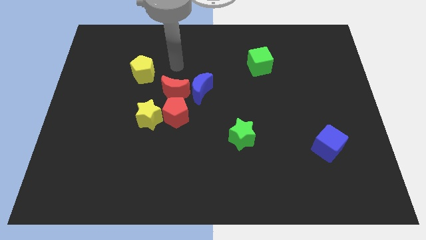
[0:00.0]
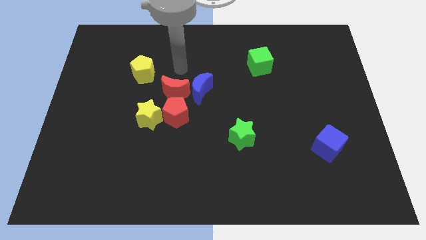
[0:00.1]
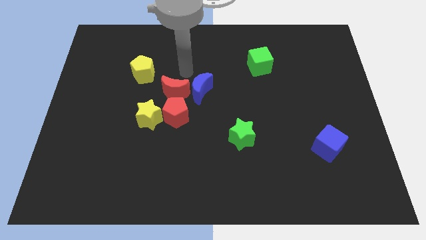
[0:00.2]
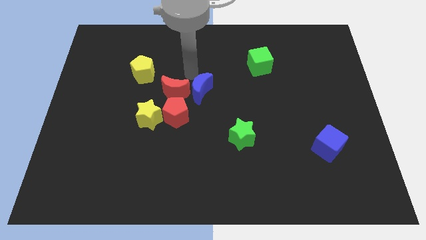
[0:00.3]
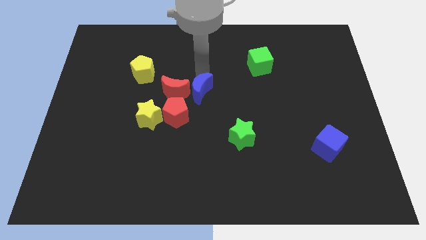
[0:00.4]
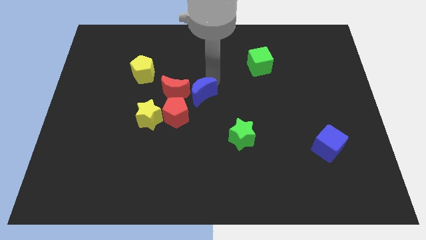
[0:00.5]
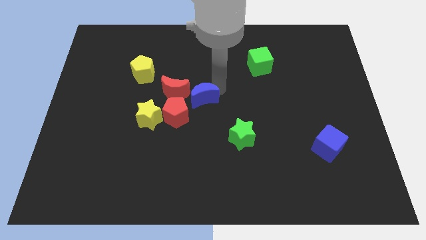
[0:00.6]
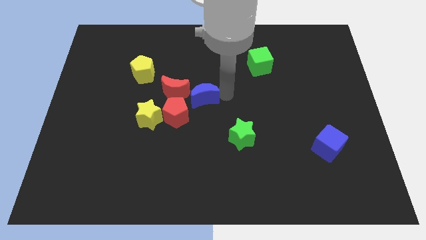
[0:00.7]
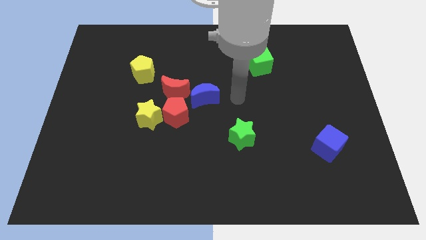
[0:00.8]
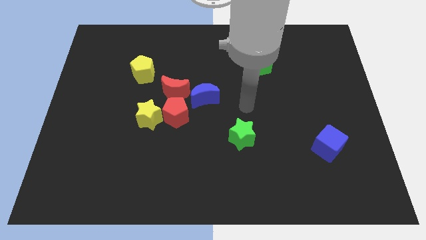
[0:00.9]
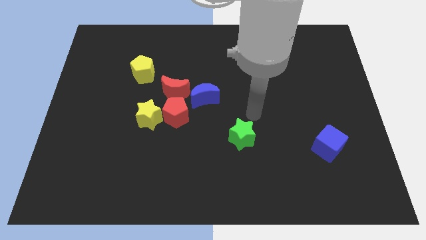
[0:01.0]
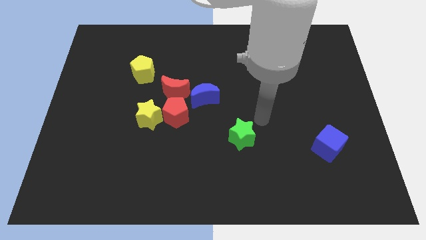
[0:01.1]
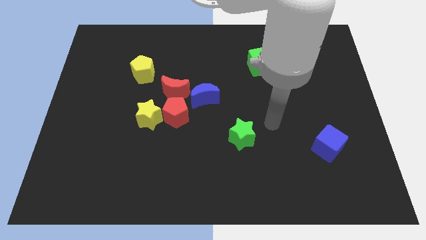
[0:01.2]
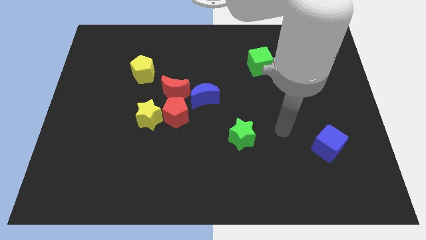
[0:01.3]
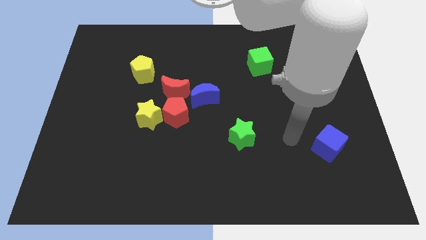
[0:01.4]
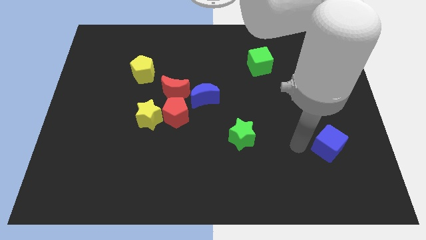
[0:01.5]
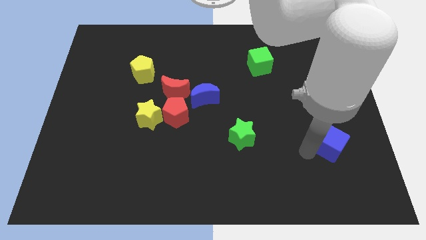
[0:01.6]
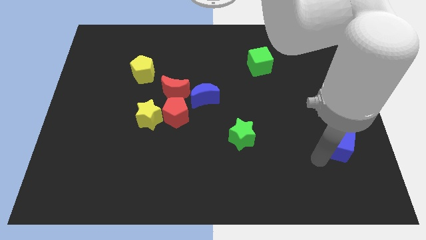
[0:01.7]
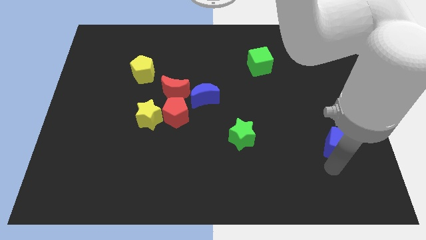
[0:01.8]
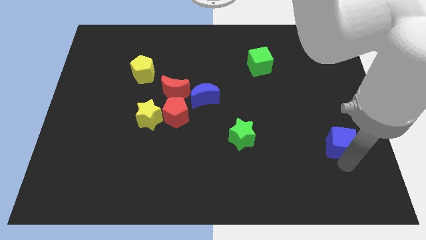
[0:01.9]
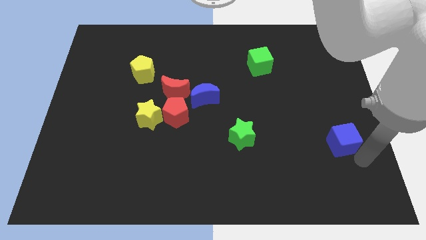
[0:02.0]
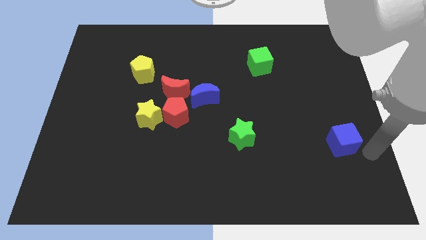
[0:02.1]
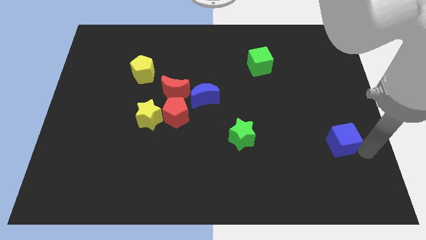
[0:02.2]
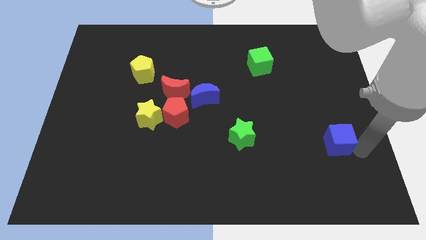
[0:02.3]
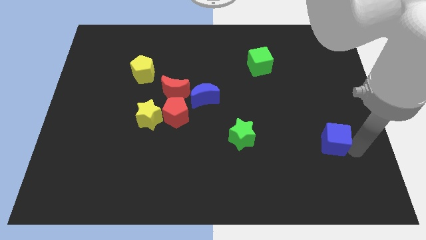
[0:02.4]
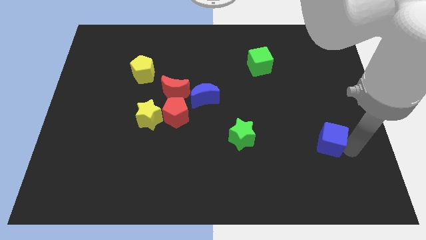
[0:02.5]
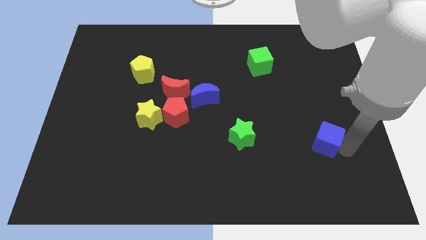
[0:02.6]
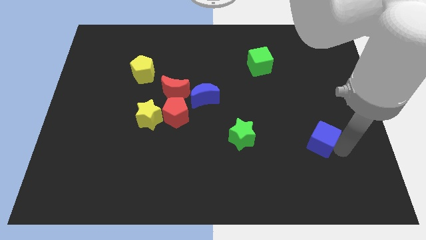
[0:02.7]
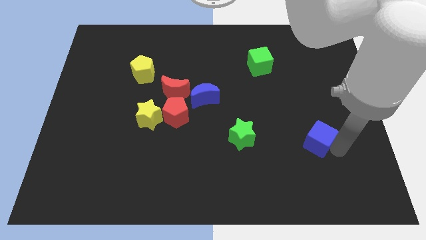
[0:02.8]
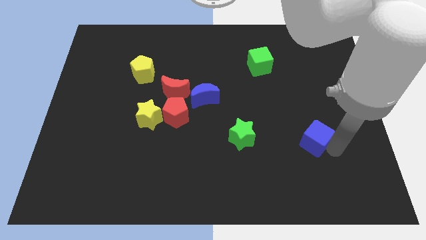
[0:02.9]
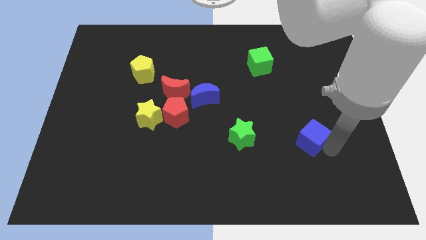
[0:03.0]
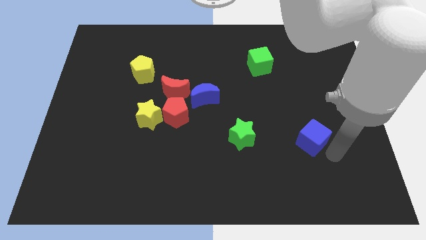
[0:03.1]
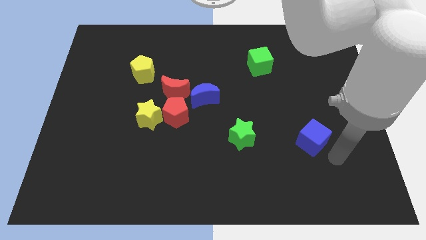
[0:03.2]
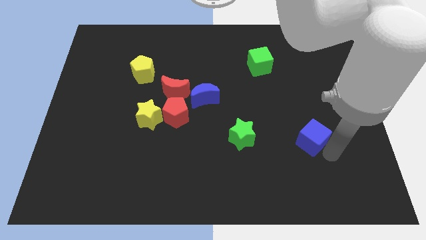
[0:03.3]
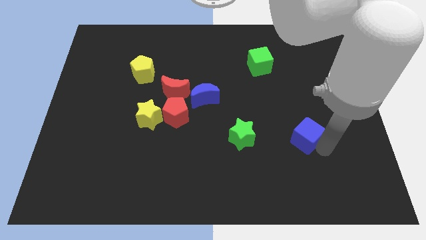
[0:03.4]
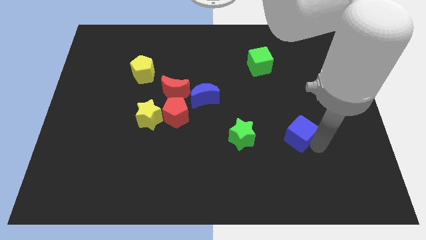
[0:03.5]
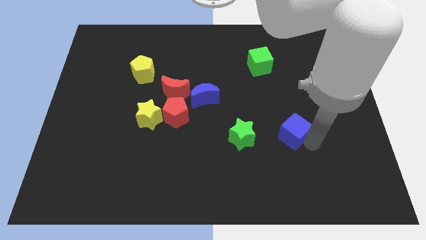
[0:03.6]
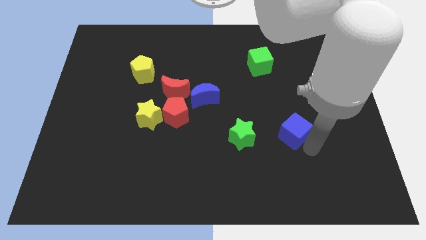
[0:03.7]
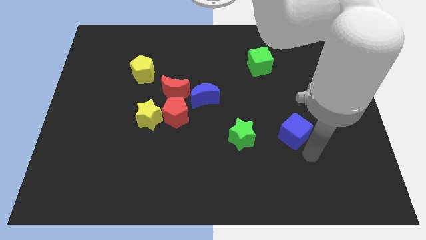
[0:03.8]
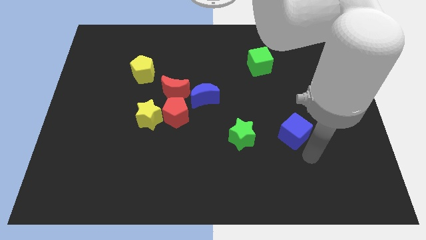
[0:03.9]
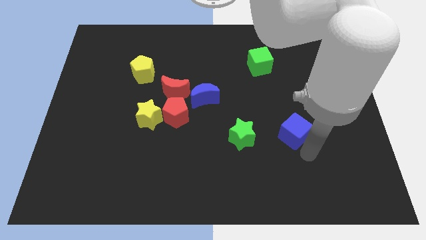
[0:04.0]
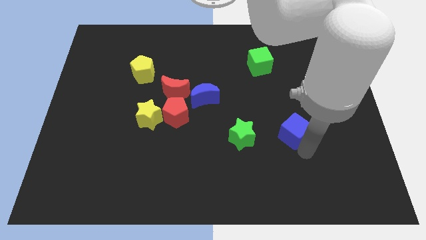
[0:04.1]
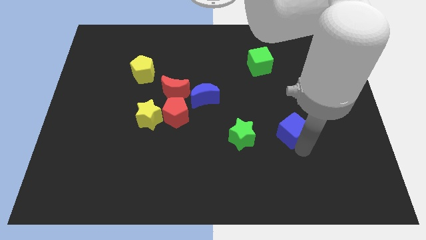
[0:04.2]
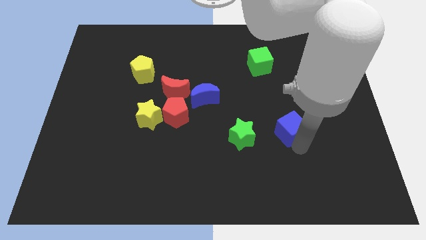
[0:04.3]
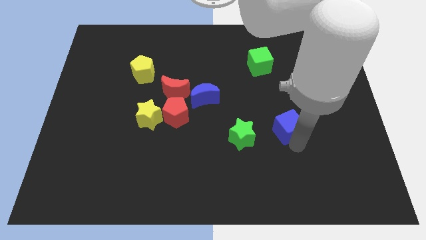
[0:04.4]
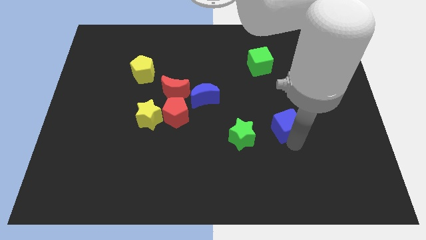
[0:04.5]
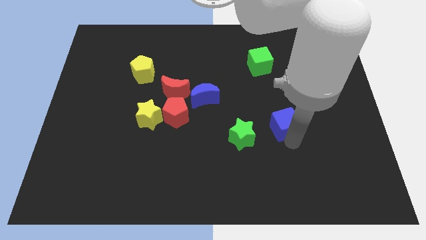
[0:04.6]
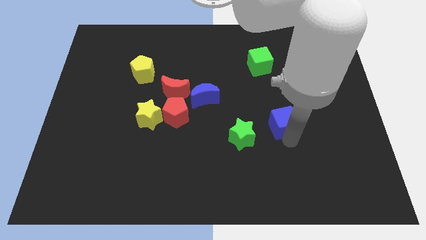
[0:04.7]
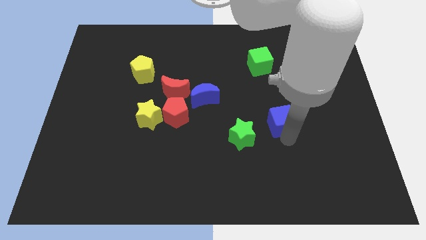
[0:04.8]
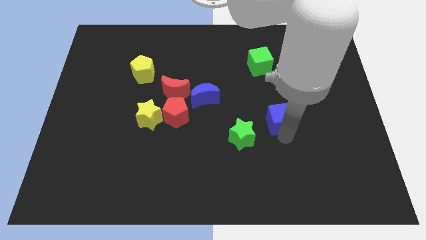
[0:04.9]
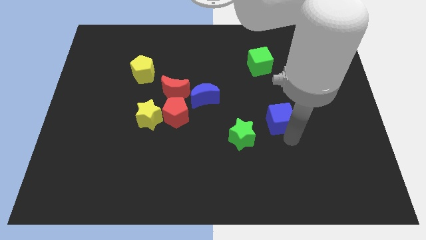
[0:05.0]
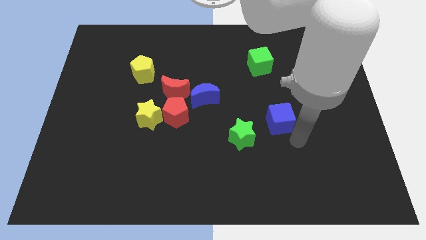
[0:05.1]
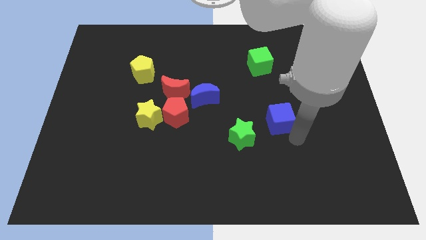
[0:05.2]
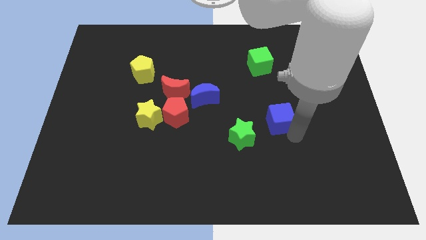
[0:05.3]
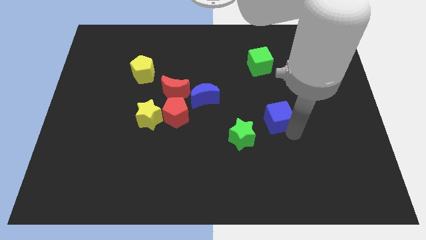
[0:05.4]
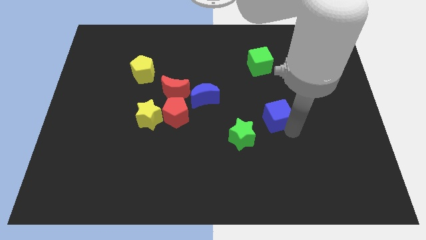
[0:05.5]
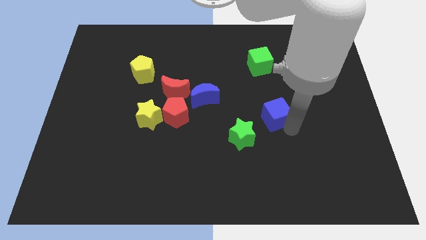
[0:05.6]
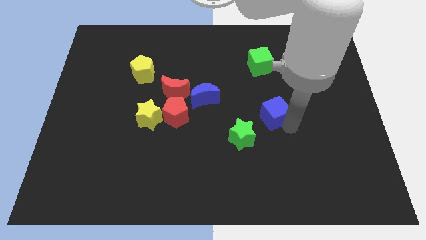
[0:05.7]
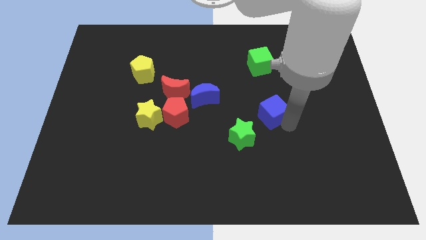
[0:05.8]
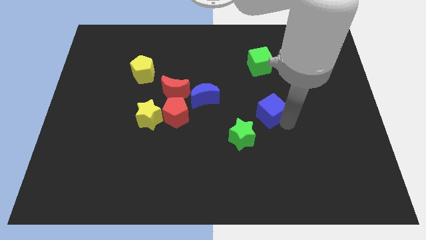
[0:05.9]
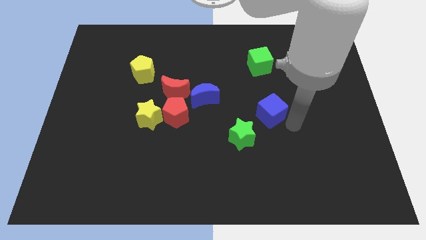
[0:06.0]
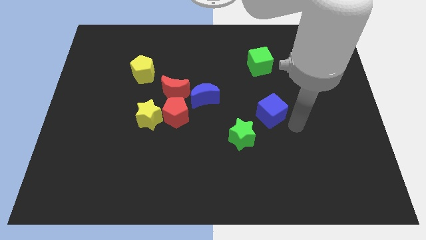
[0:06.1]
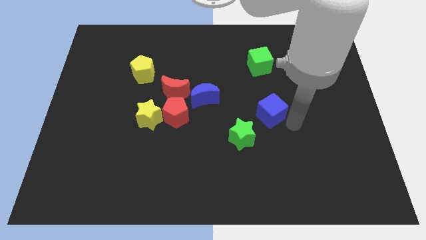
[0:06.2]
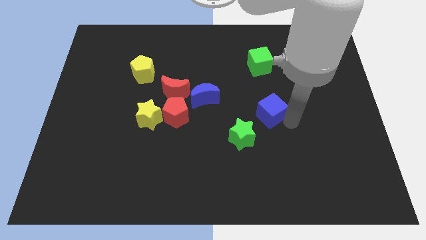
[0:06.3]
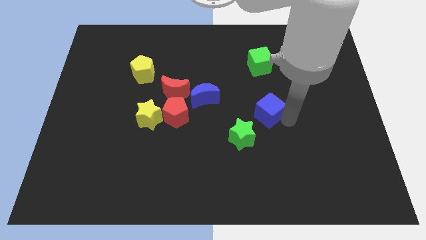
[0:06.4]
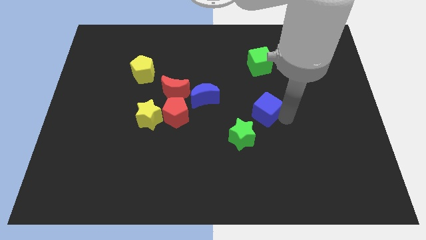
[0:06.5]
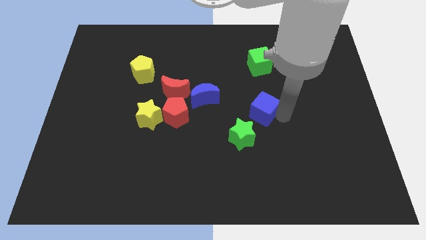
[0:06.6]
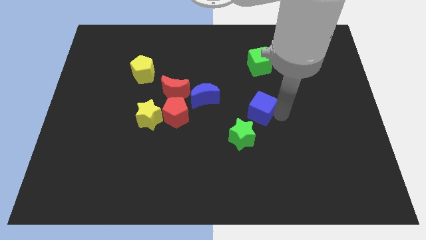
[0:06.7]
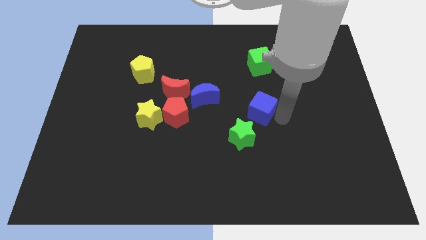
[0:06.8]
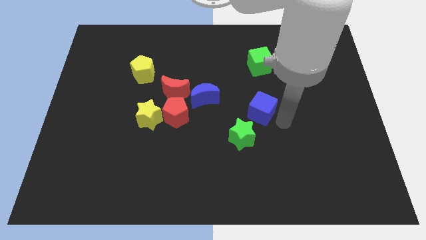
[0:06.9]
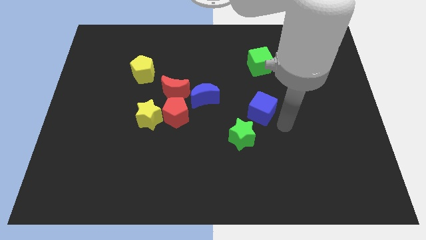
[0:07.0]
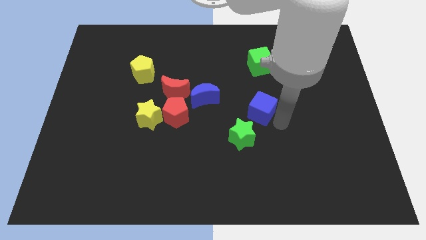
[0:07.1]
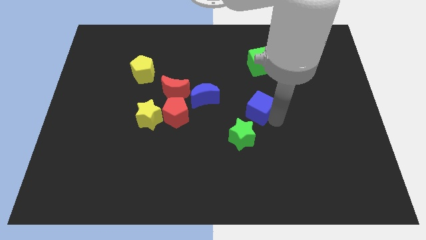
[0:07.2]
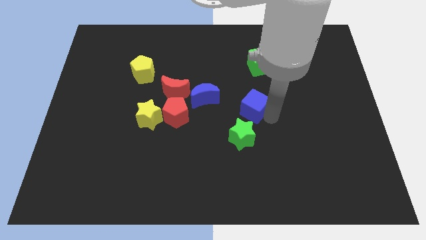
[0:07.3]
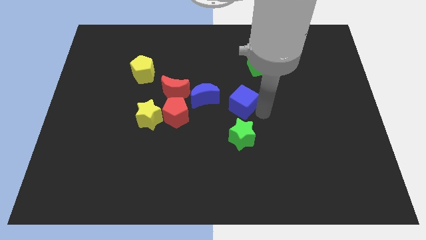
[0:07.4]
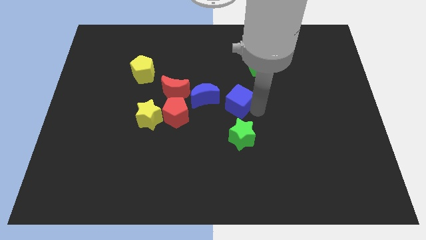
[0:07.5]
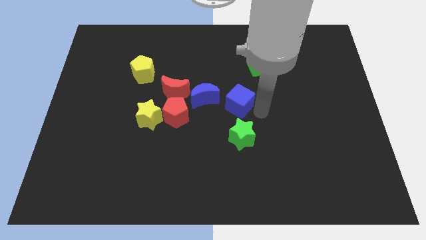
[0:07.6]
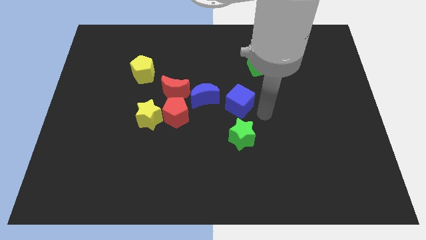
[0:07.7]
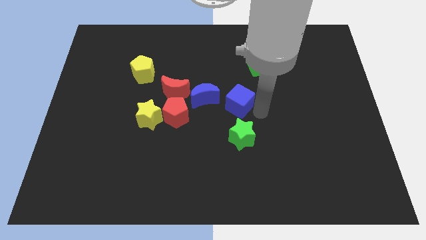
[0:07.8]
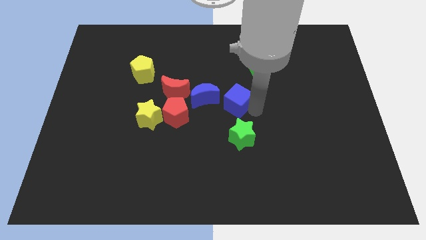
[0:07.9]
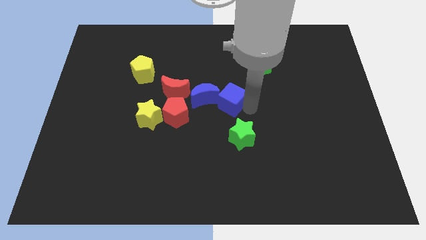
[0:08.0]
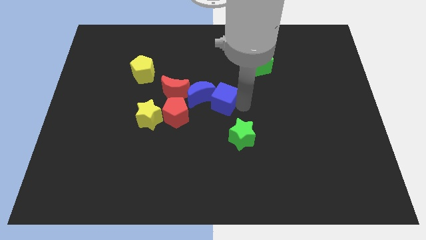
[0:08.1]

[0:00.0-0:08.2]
move the blue cube towards the blue moon
